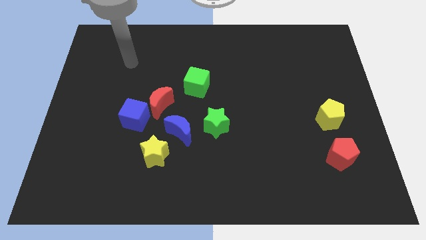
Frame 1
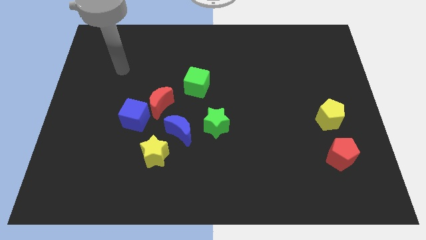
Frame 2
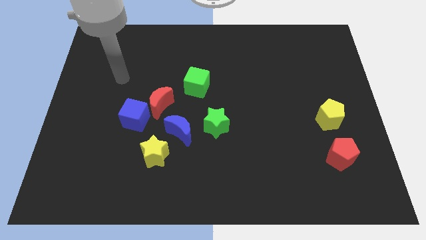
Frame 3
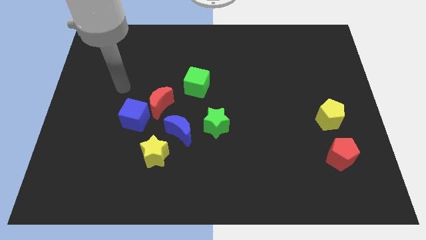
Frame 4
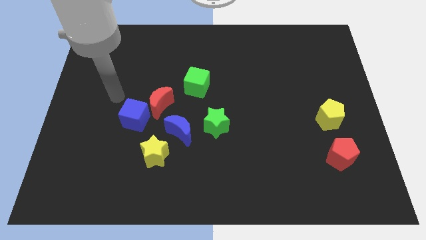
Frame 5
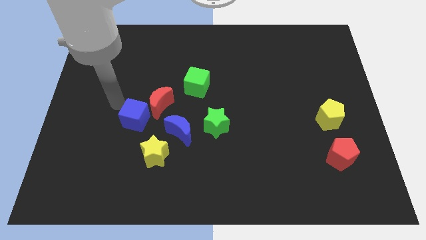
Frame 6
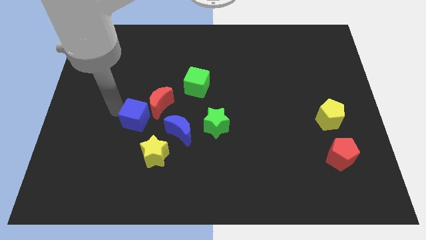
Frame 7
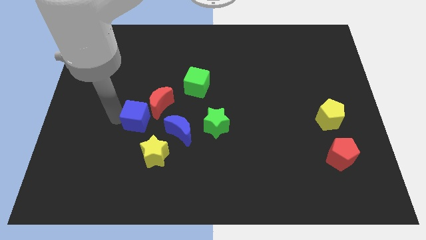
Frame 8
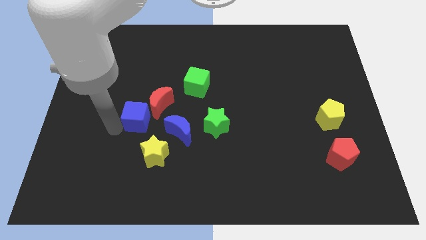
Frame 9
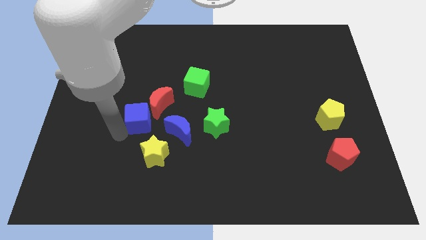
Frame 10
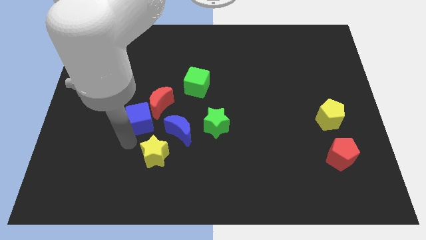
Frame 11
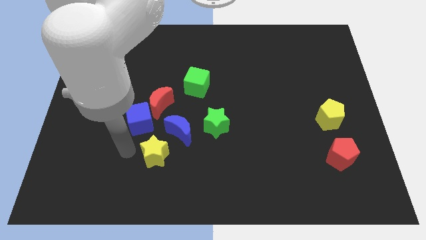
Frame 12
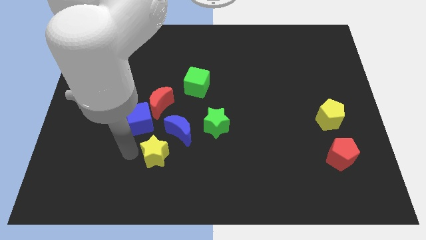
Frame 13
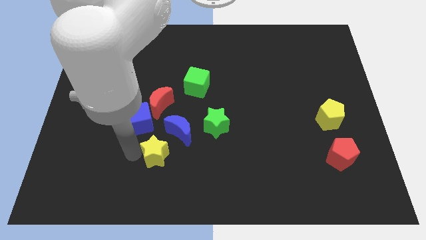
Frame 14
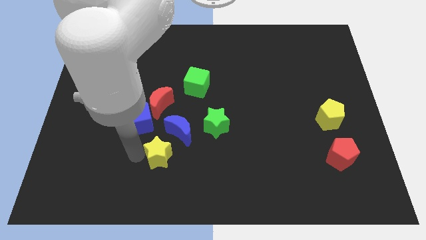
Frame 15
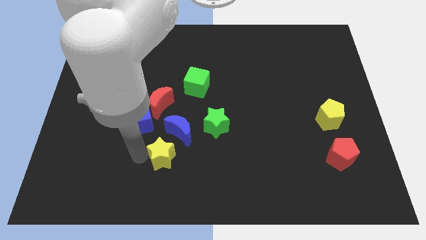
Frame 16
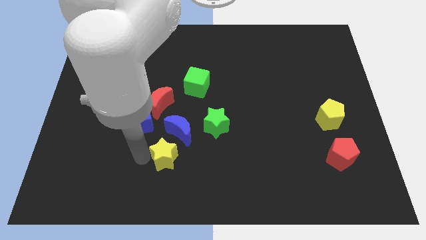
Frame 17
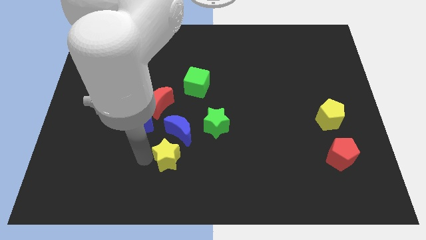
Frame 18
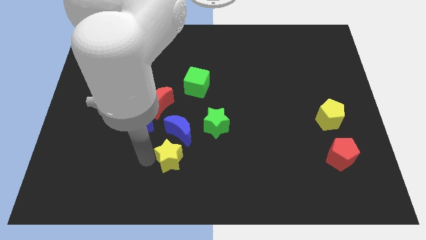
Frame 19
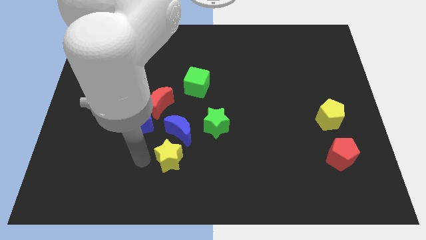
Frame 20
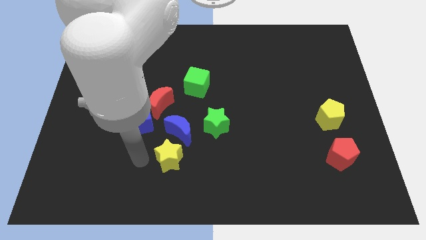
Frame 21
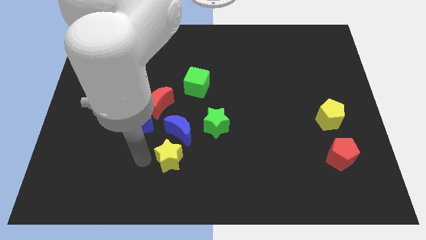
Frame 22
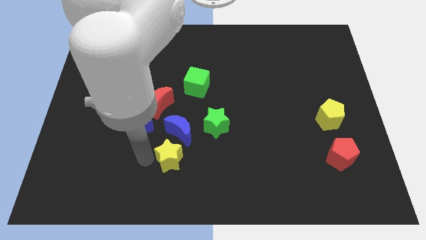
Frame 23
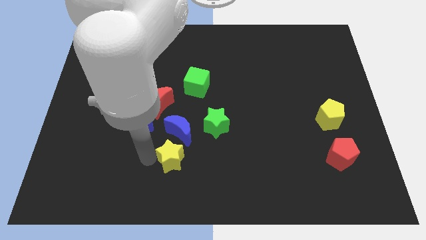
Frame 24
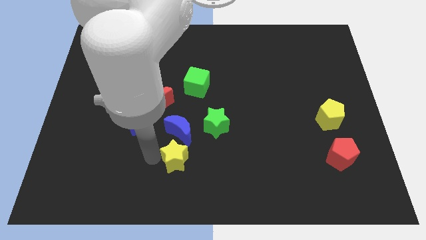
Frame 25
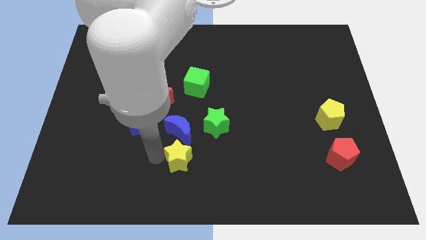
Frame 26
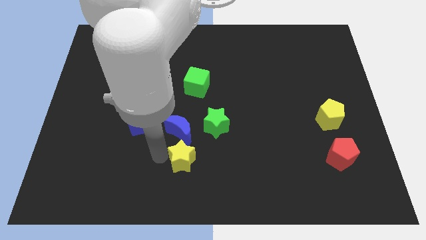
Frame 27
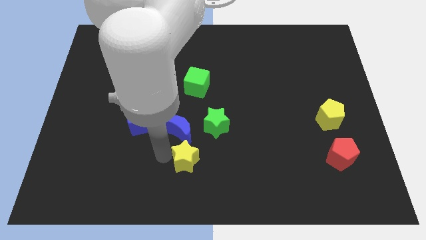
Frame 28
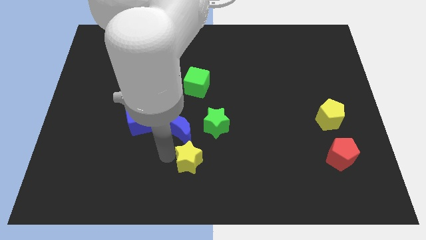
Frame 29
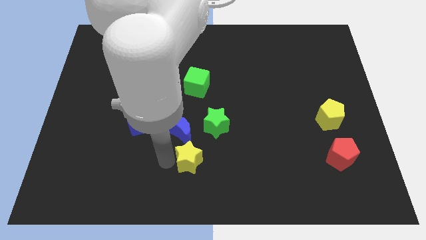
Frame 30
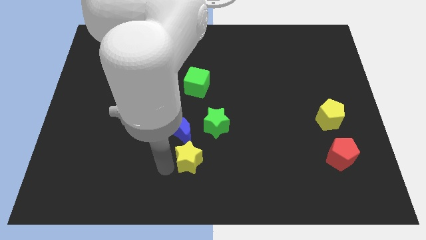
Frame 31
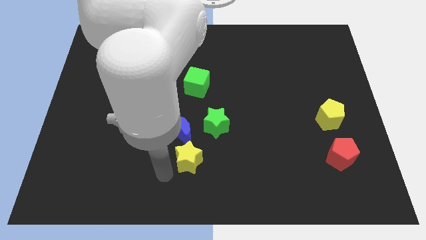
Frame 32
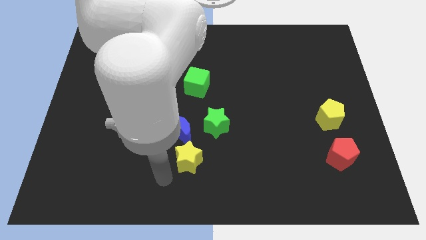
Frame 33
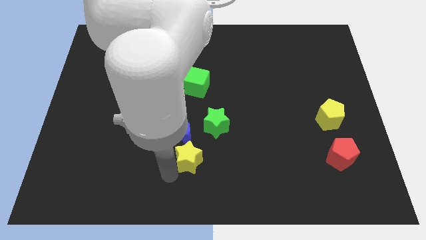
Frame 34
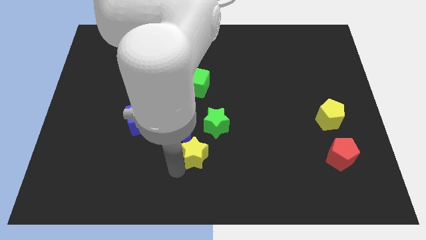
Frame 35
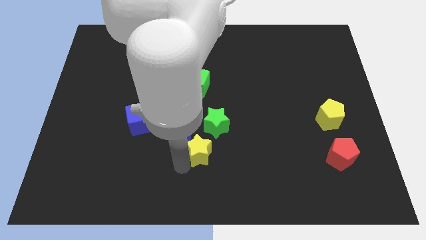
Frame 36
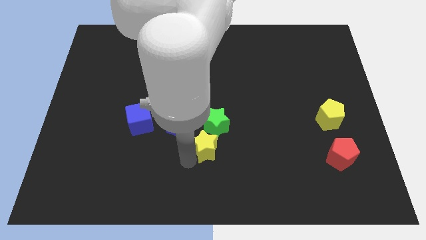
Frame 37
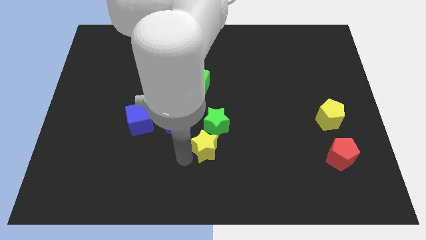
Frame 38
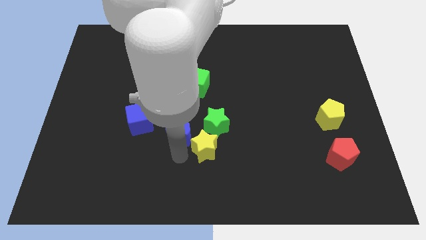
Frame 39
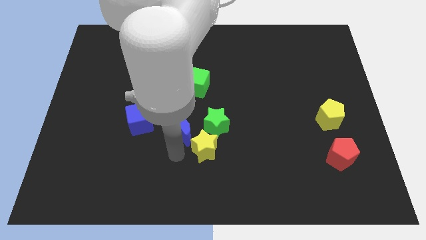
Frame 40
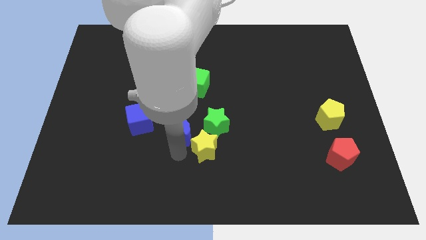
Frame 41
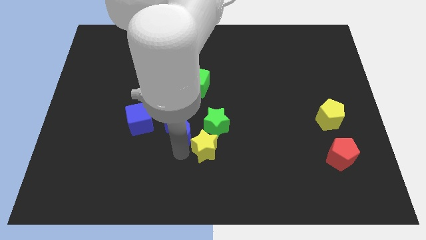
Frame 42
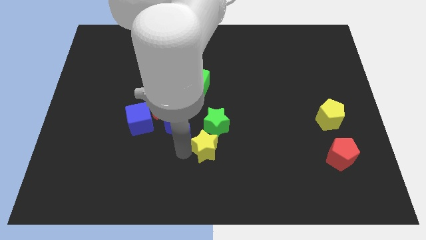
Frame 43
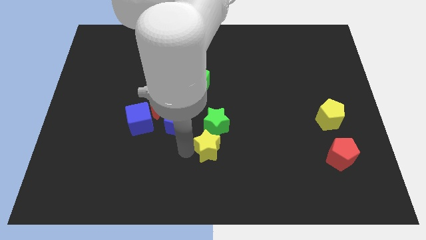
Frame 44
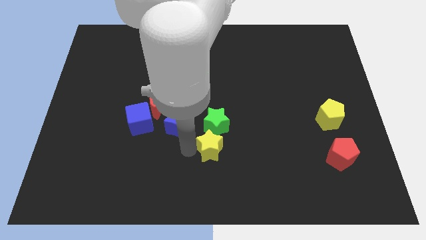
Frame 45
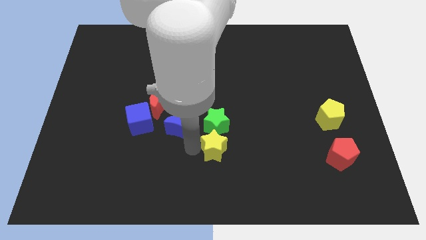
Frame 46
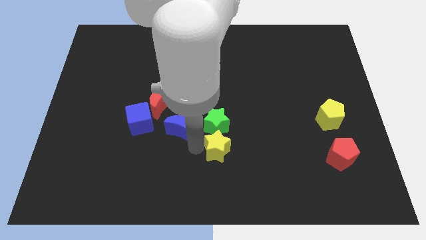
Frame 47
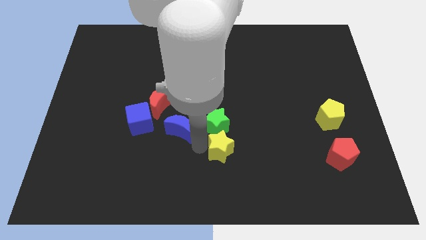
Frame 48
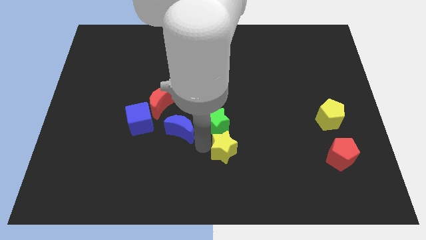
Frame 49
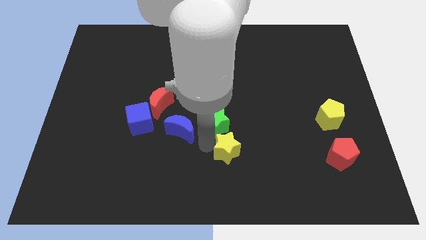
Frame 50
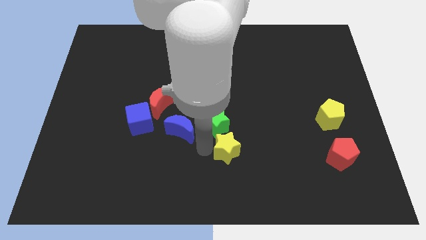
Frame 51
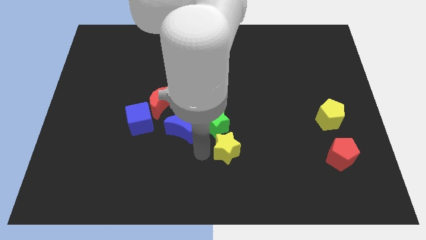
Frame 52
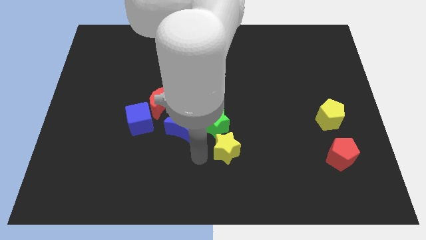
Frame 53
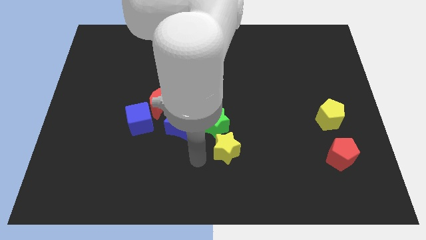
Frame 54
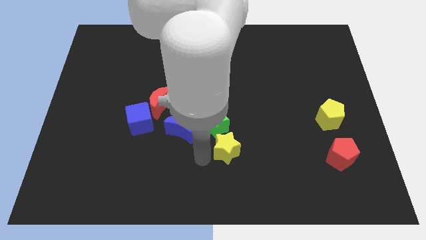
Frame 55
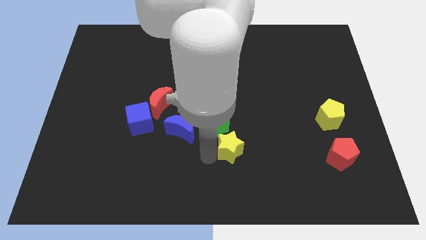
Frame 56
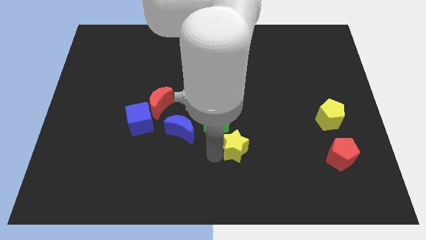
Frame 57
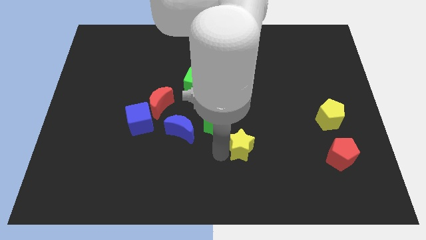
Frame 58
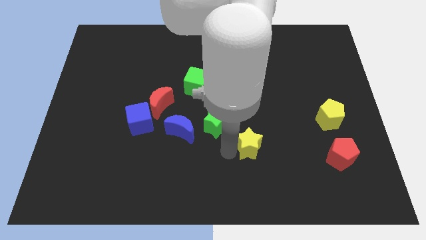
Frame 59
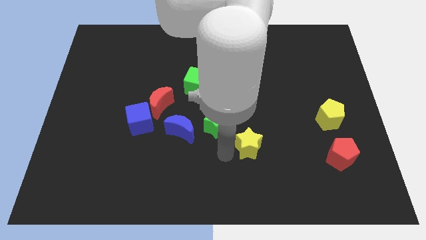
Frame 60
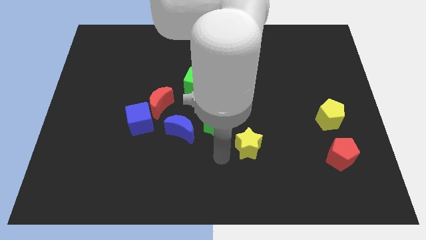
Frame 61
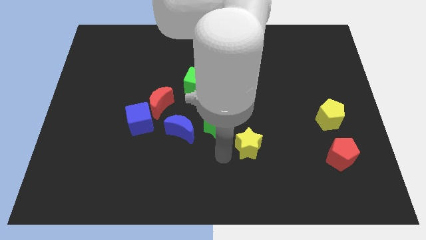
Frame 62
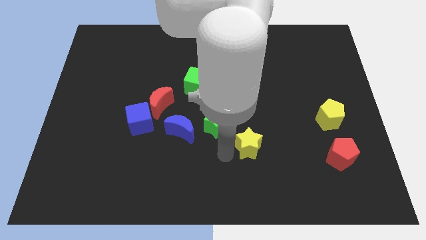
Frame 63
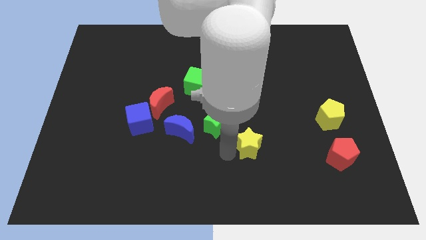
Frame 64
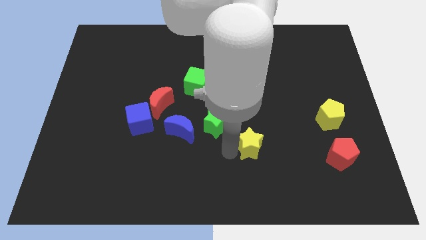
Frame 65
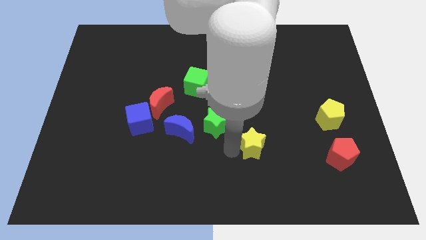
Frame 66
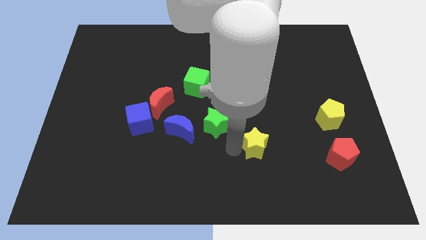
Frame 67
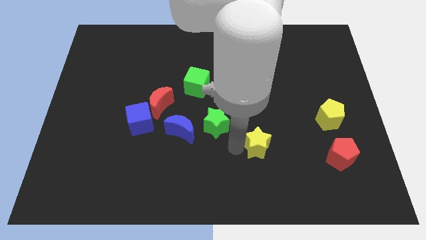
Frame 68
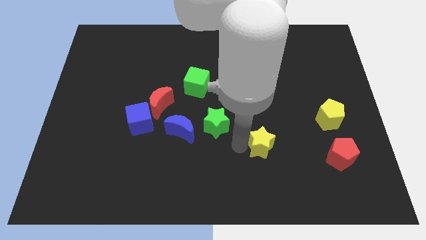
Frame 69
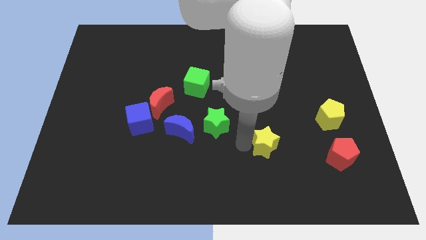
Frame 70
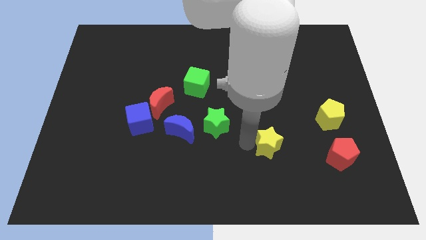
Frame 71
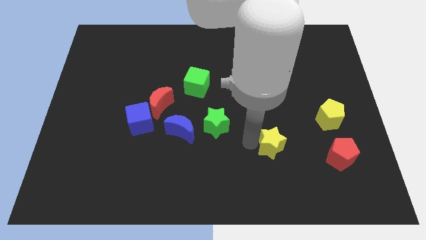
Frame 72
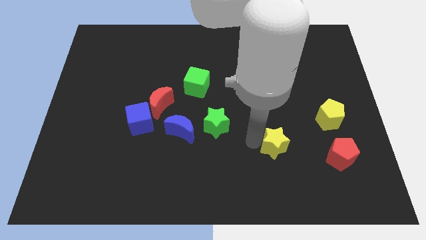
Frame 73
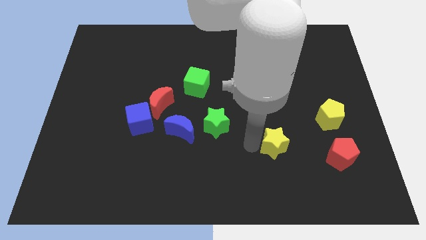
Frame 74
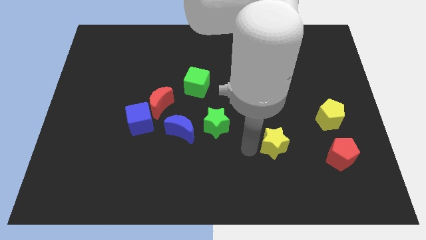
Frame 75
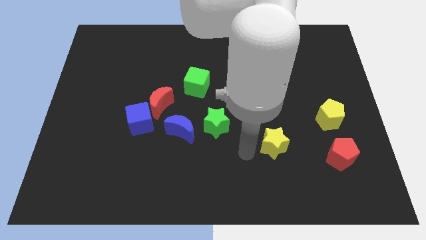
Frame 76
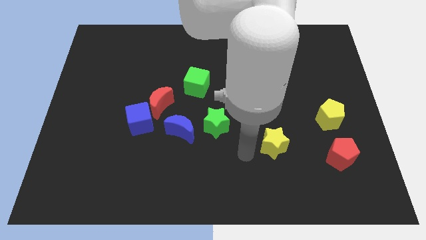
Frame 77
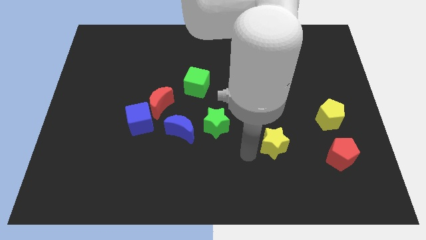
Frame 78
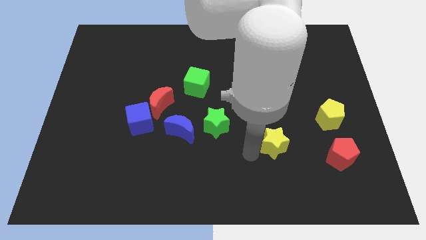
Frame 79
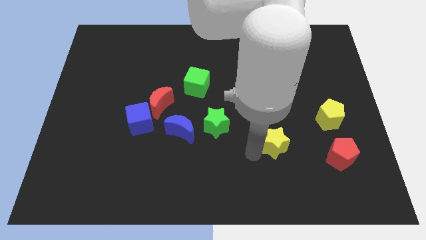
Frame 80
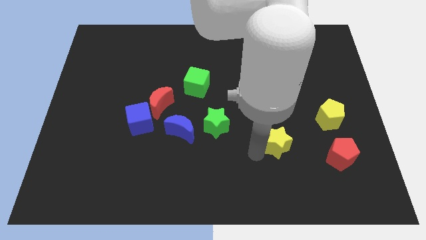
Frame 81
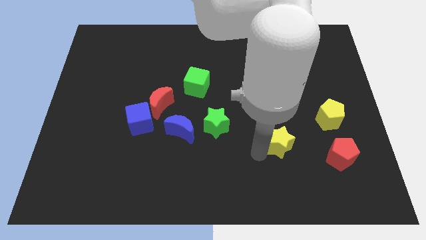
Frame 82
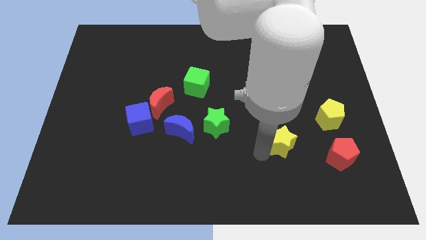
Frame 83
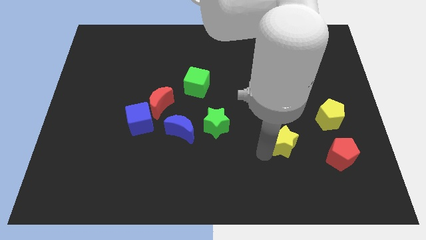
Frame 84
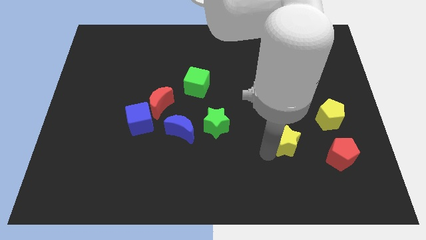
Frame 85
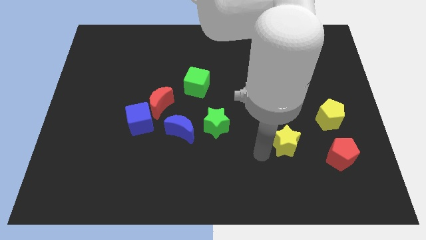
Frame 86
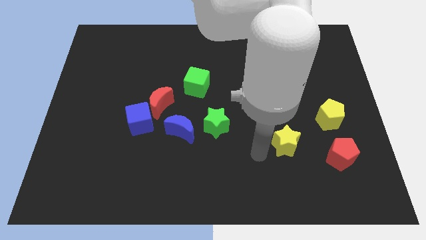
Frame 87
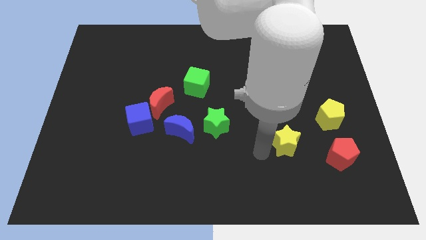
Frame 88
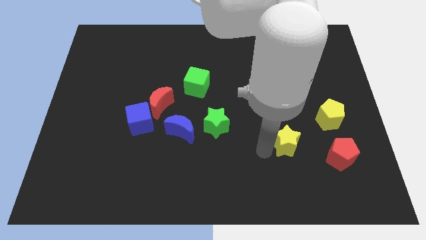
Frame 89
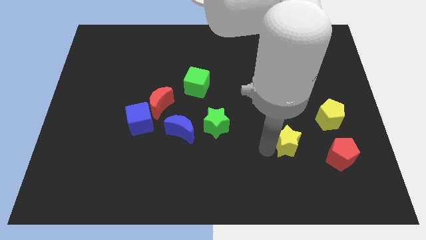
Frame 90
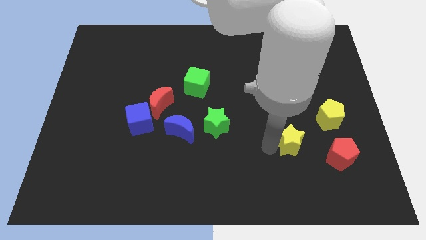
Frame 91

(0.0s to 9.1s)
put the yellow star to the bottom left of the yellow pentagon
